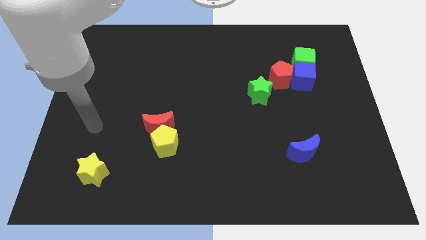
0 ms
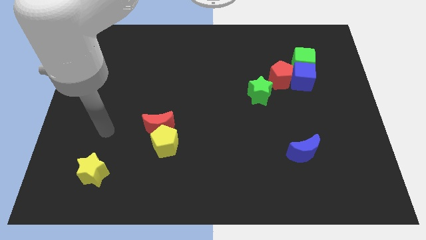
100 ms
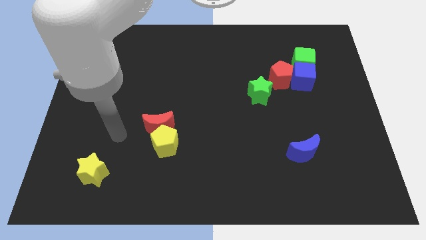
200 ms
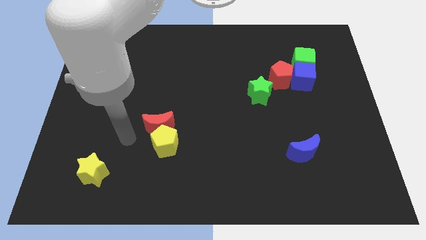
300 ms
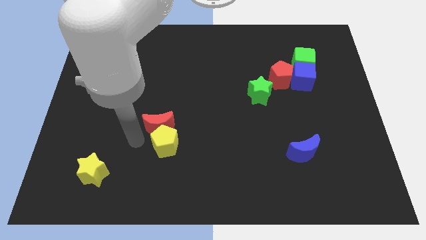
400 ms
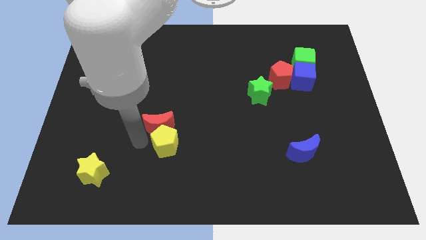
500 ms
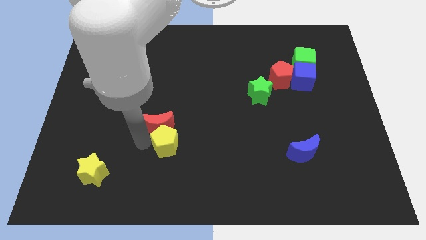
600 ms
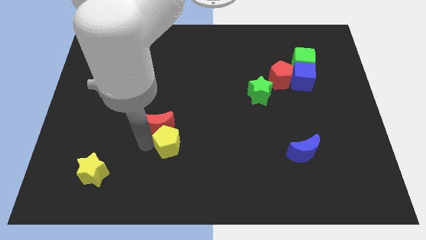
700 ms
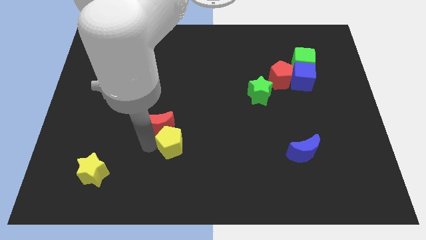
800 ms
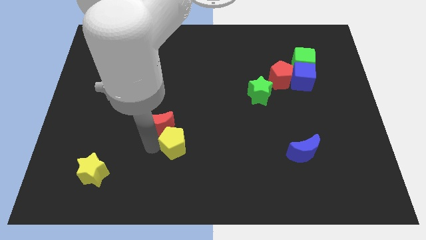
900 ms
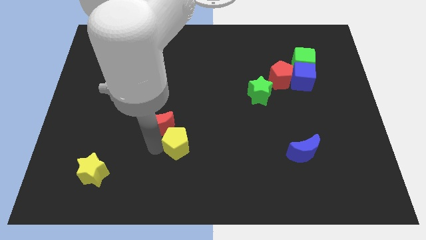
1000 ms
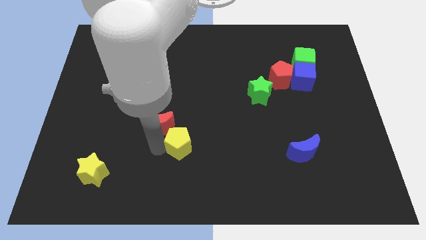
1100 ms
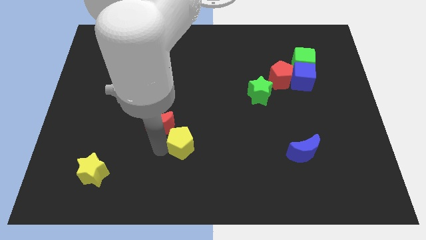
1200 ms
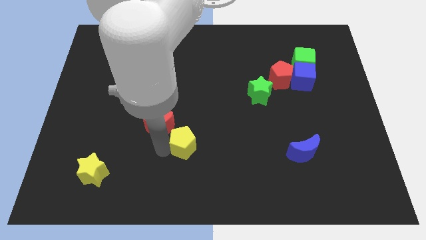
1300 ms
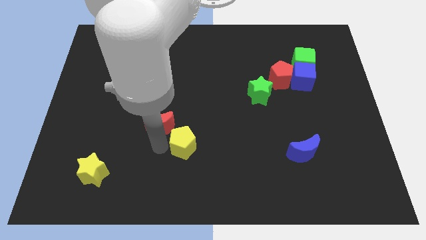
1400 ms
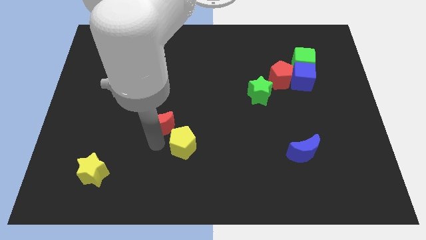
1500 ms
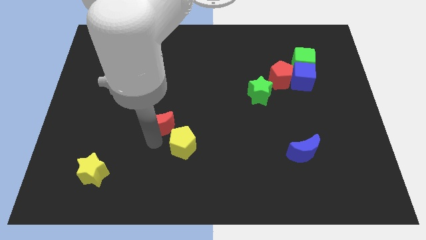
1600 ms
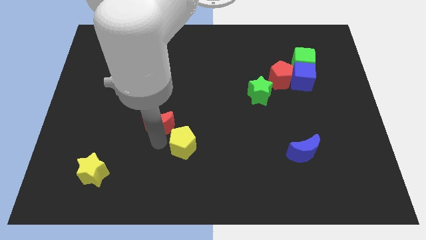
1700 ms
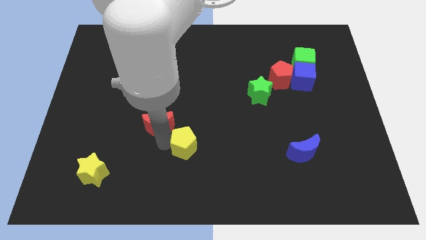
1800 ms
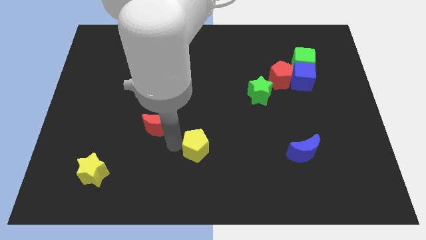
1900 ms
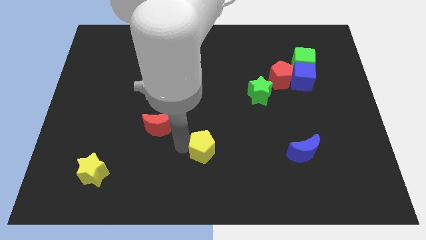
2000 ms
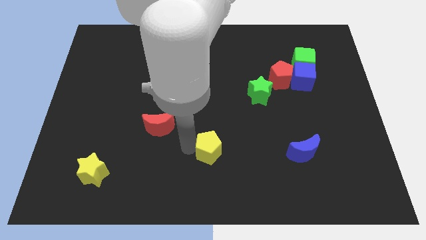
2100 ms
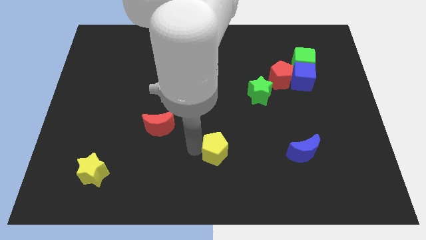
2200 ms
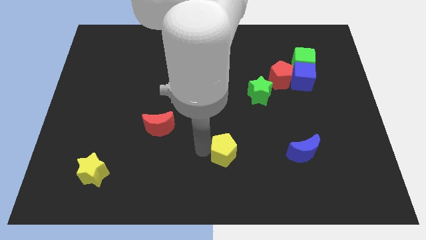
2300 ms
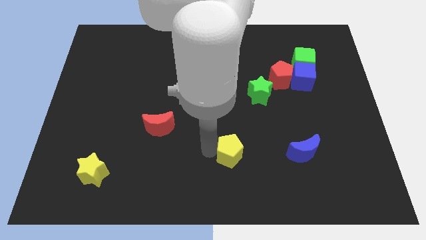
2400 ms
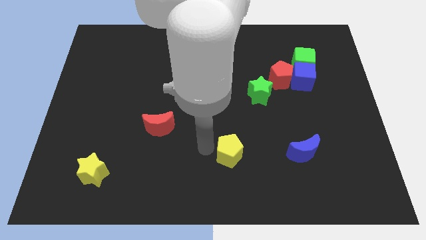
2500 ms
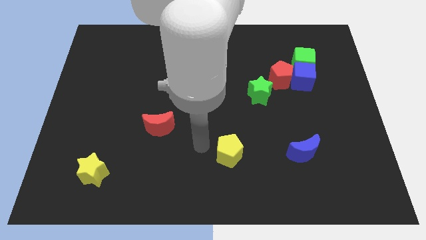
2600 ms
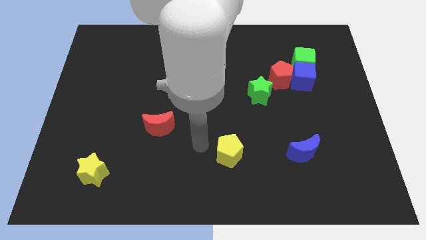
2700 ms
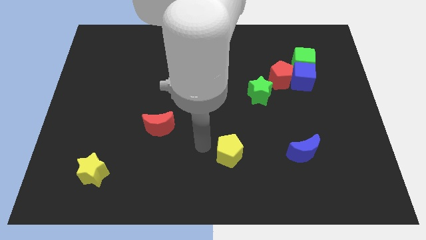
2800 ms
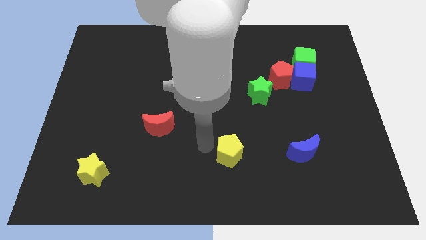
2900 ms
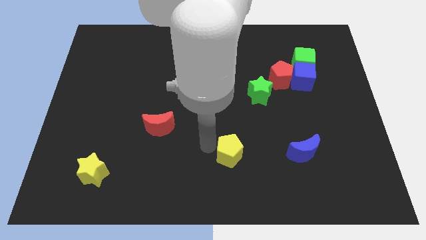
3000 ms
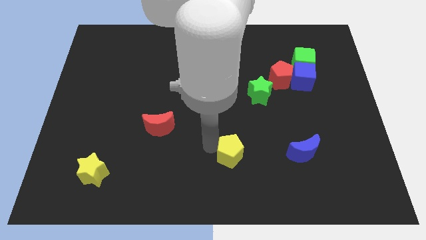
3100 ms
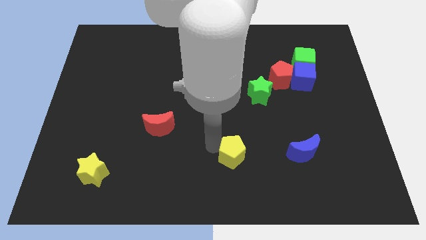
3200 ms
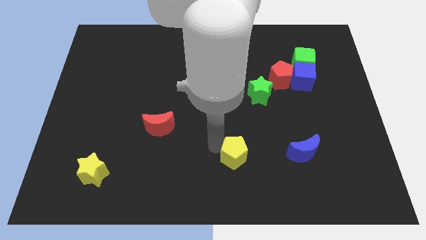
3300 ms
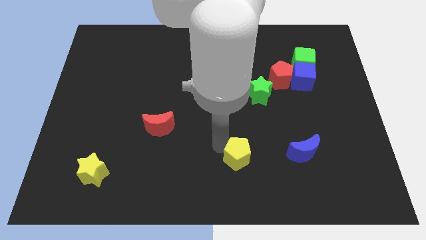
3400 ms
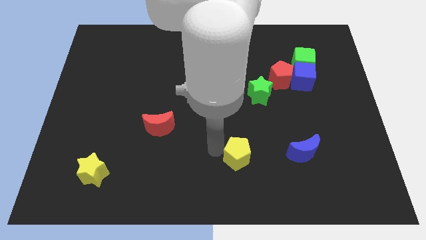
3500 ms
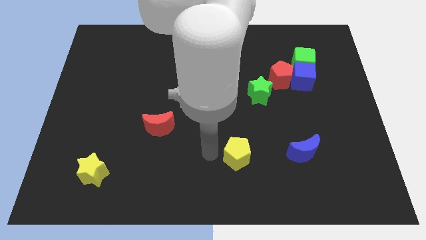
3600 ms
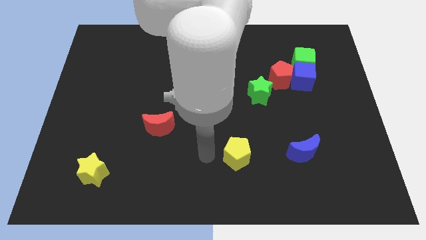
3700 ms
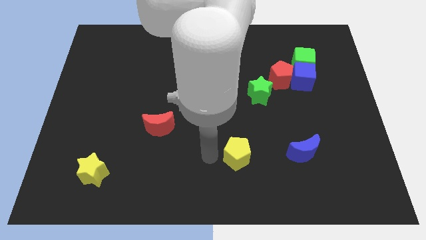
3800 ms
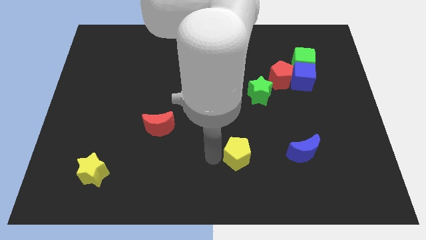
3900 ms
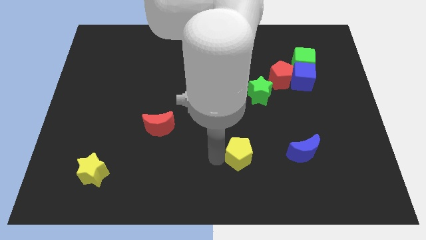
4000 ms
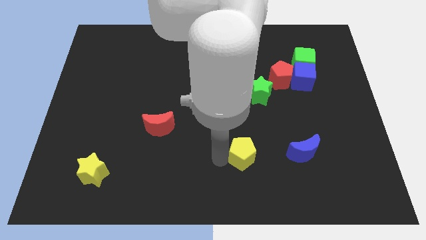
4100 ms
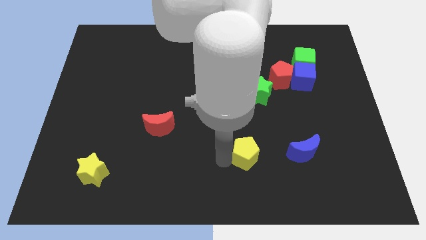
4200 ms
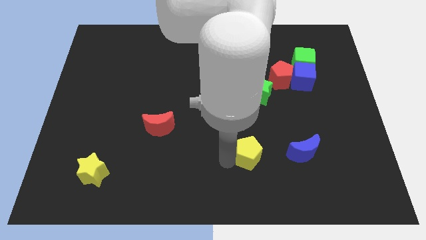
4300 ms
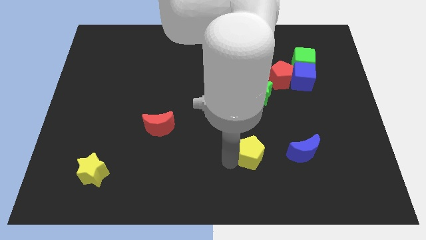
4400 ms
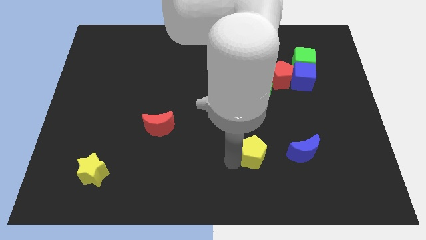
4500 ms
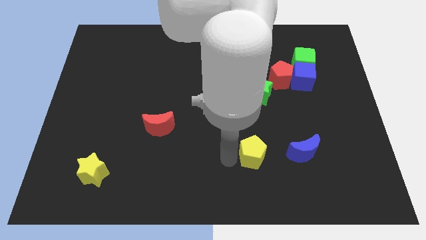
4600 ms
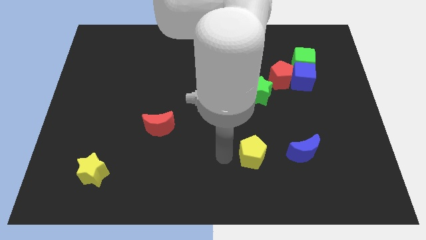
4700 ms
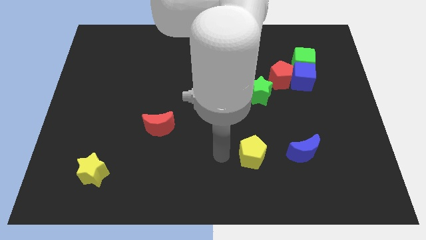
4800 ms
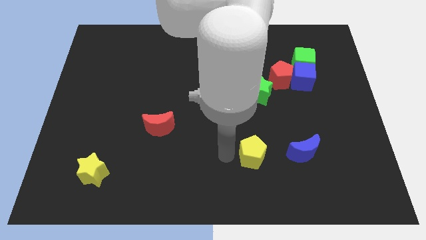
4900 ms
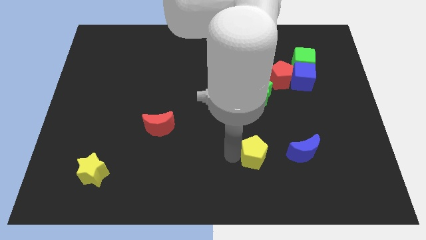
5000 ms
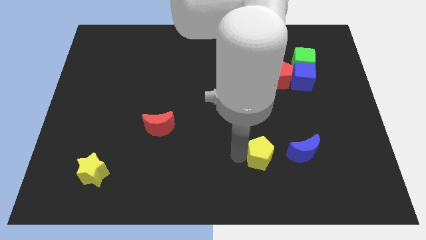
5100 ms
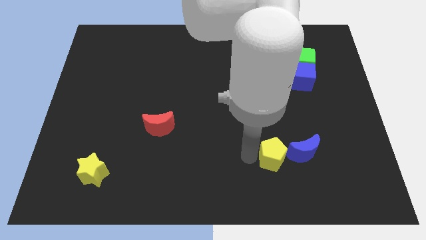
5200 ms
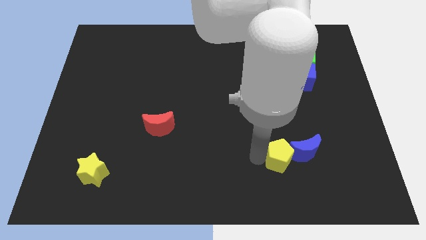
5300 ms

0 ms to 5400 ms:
put the yellow pentagon to the blue moon

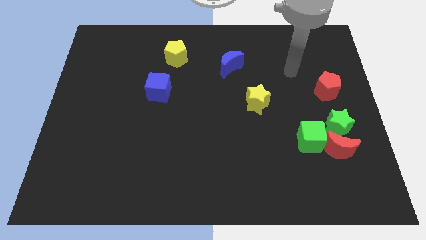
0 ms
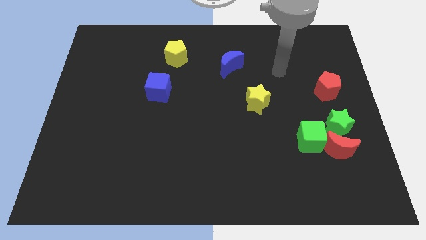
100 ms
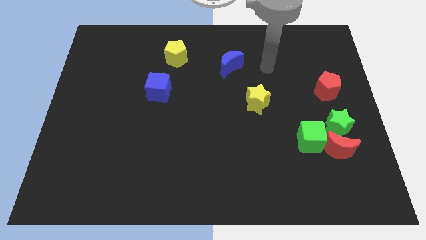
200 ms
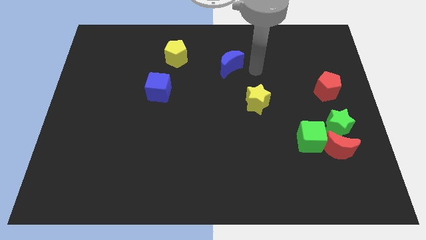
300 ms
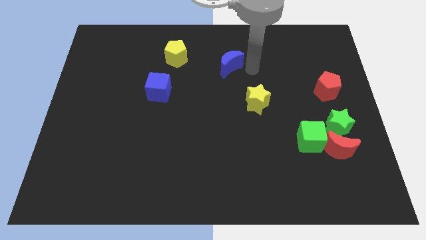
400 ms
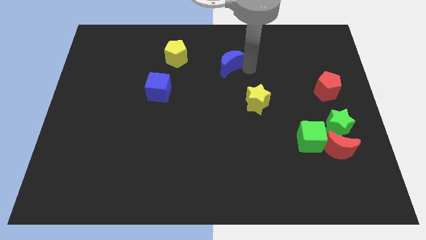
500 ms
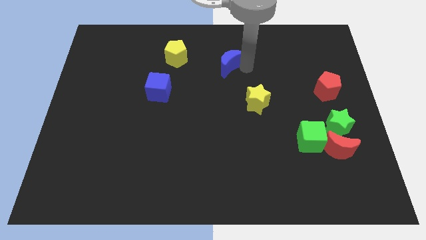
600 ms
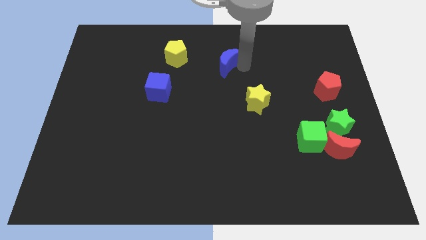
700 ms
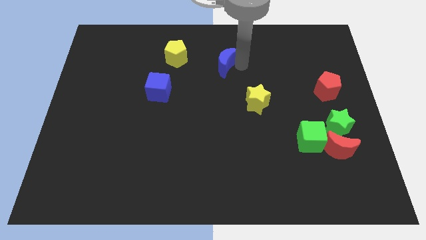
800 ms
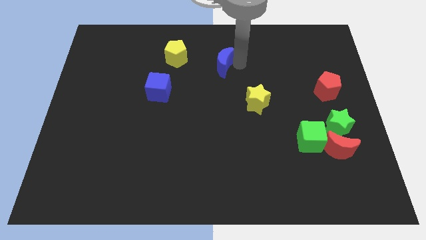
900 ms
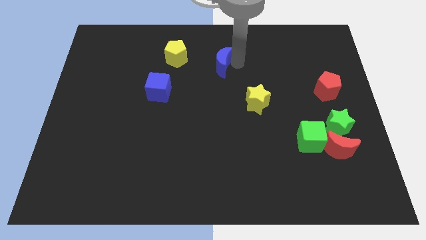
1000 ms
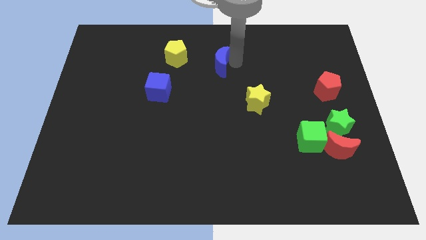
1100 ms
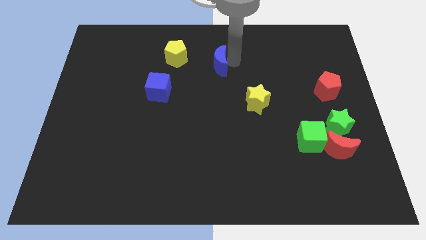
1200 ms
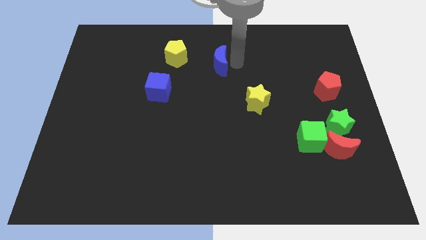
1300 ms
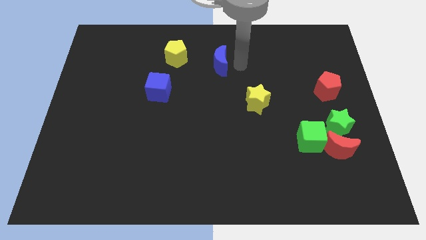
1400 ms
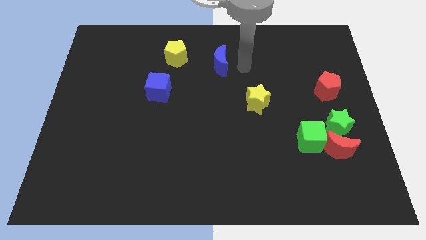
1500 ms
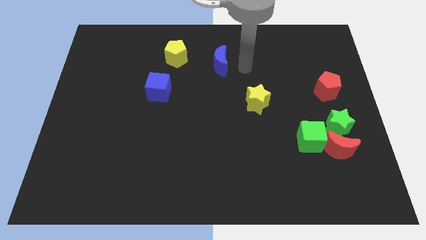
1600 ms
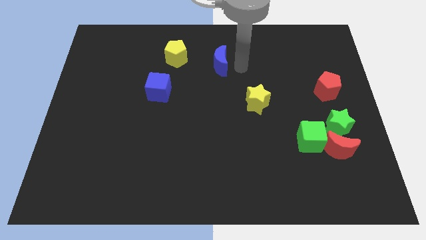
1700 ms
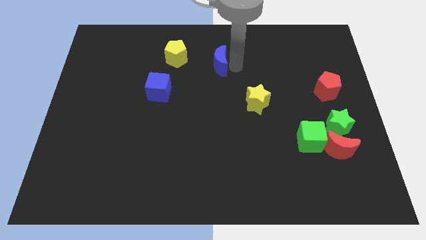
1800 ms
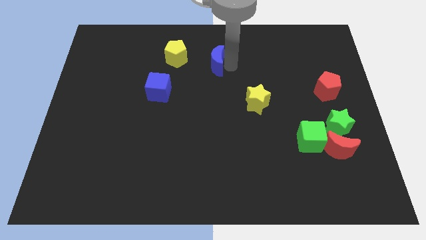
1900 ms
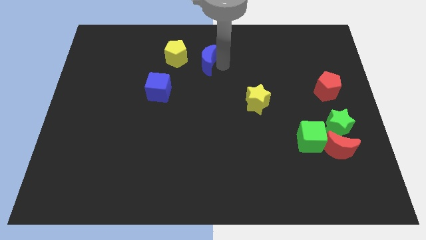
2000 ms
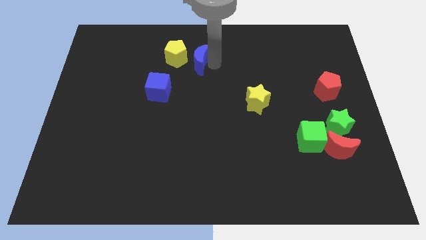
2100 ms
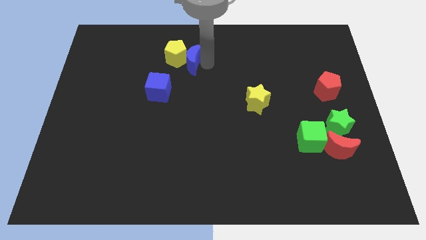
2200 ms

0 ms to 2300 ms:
push the blue moon to the yellow pentagon
